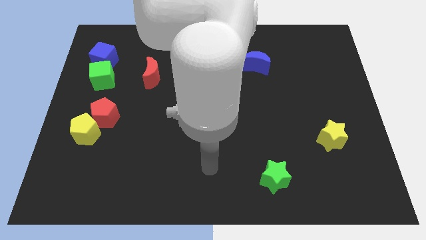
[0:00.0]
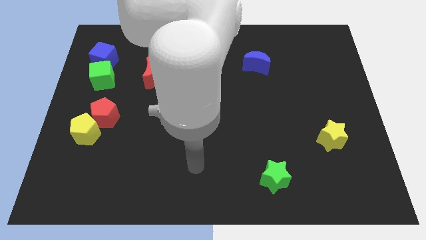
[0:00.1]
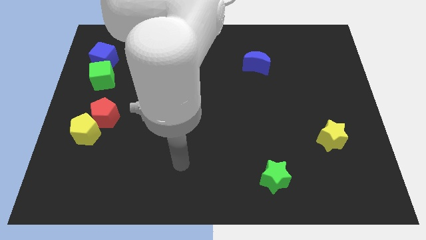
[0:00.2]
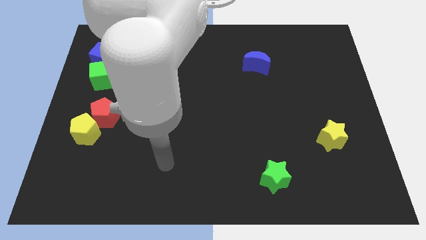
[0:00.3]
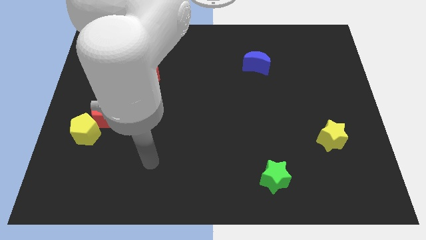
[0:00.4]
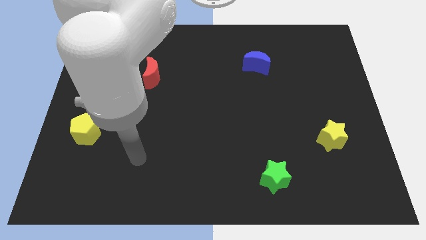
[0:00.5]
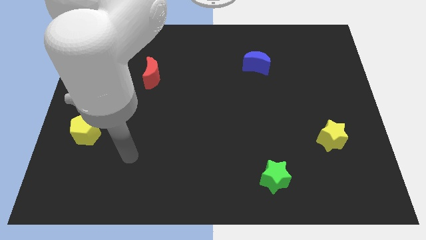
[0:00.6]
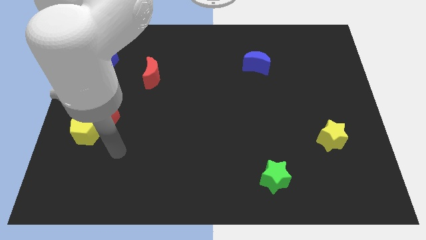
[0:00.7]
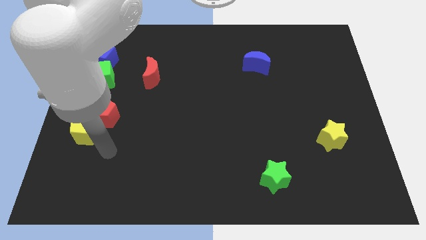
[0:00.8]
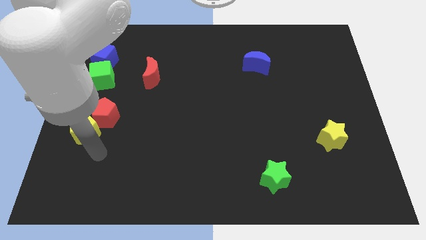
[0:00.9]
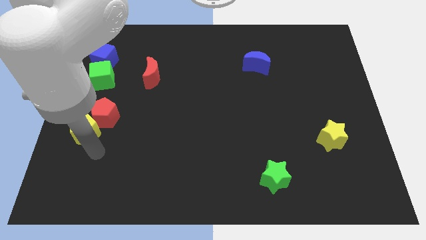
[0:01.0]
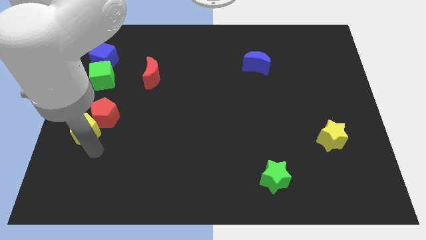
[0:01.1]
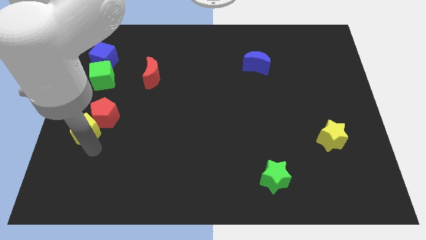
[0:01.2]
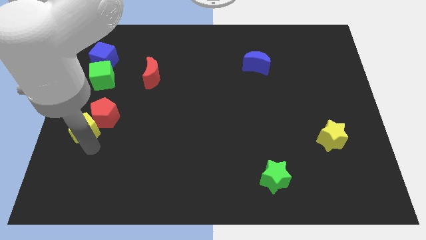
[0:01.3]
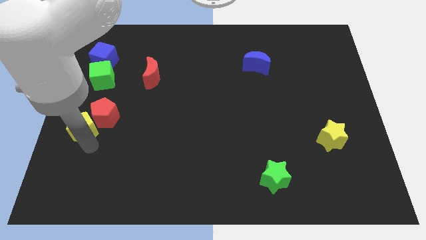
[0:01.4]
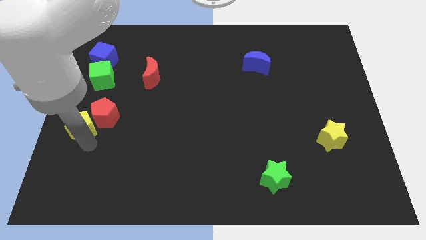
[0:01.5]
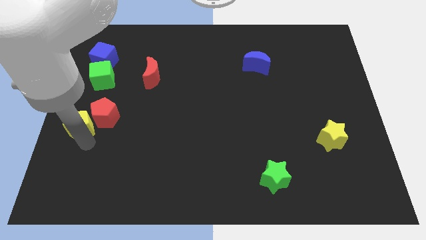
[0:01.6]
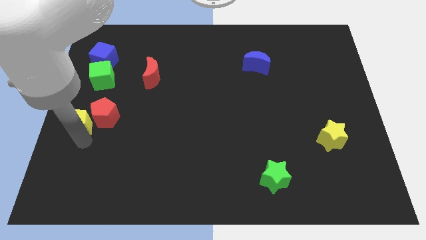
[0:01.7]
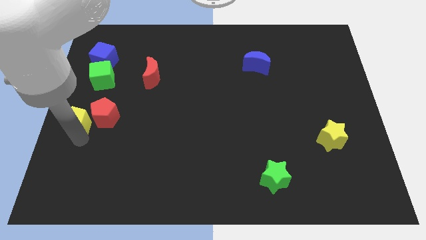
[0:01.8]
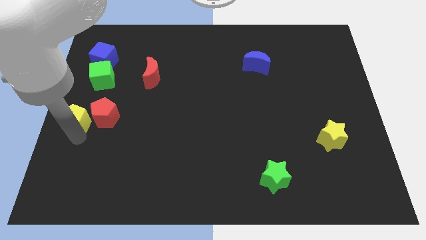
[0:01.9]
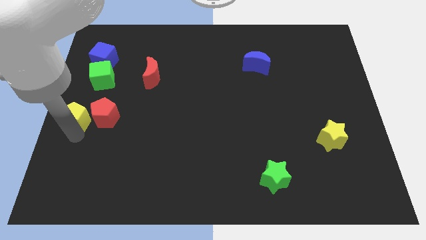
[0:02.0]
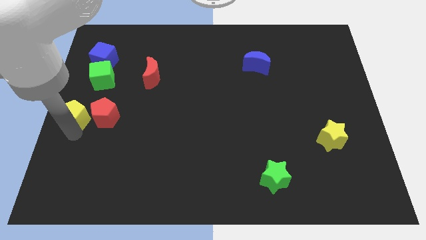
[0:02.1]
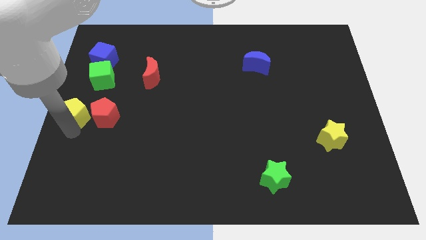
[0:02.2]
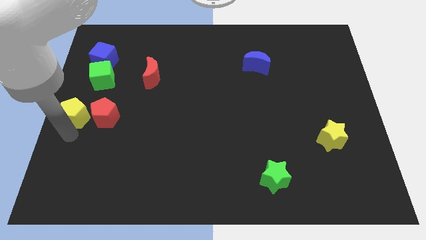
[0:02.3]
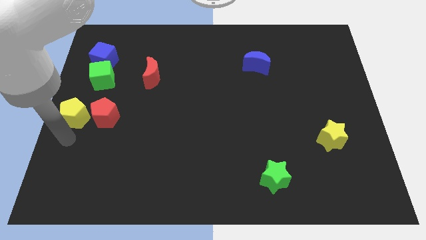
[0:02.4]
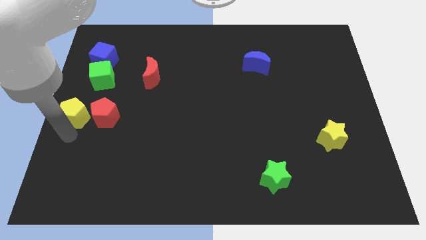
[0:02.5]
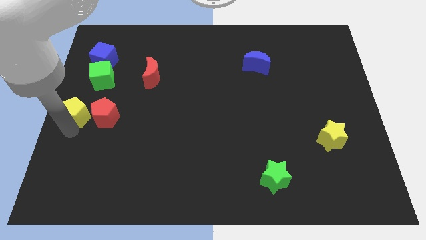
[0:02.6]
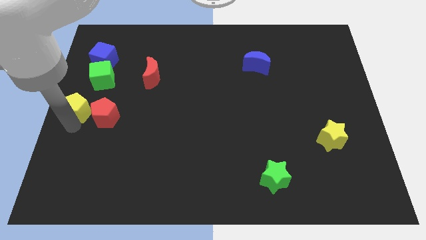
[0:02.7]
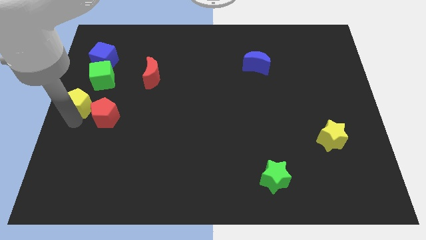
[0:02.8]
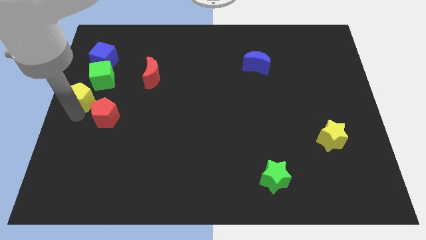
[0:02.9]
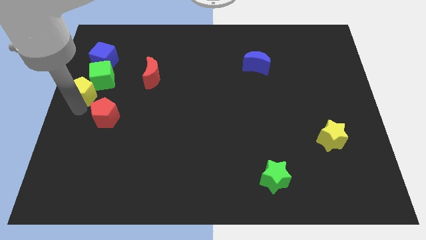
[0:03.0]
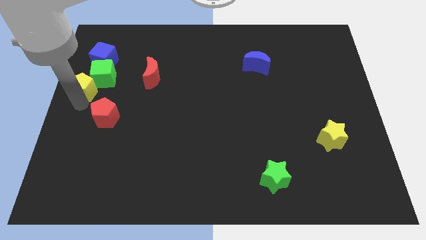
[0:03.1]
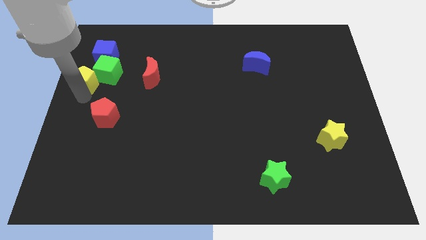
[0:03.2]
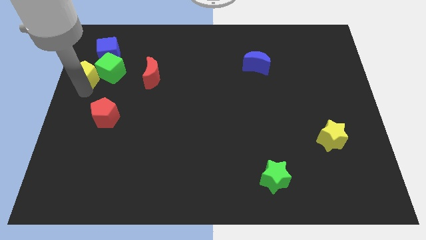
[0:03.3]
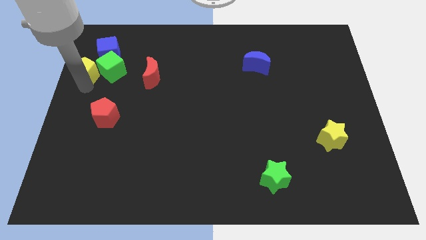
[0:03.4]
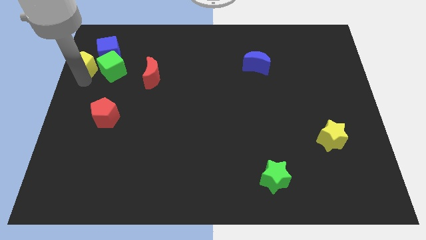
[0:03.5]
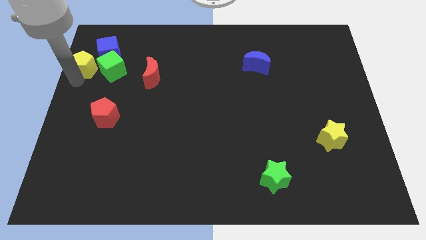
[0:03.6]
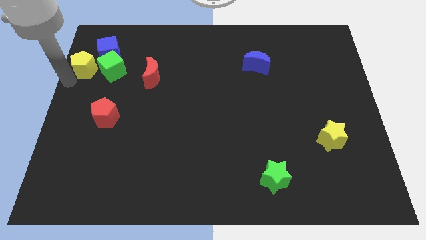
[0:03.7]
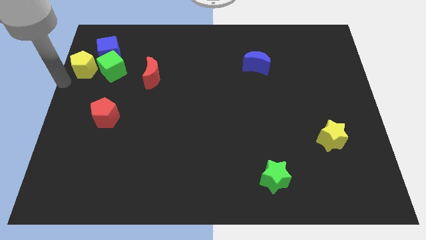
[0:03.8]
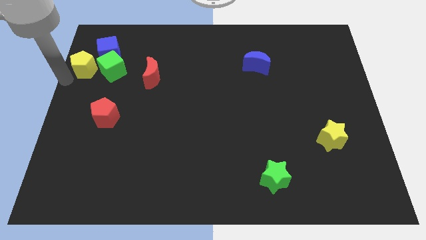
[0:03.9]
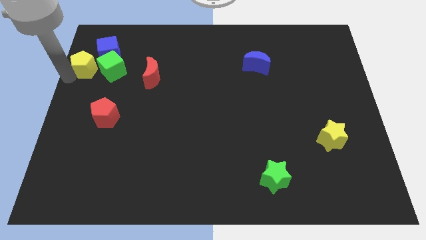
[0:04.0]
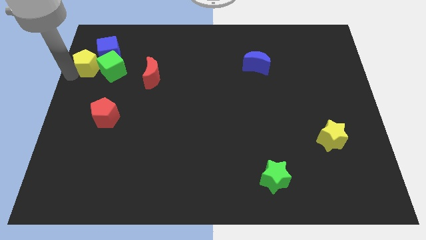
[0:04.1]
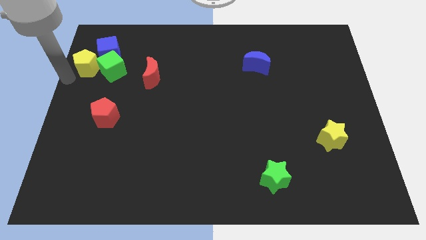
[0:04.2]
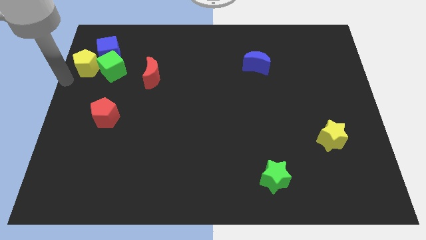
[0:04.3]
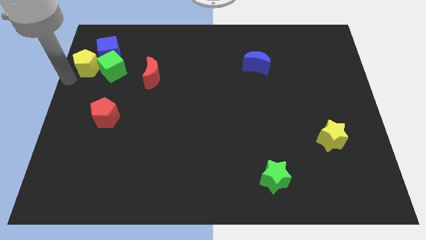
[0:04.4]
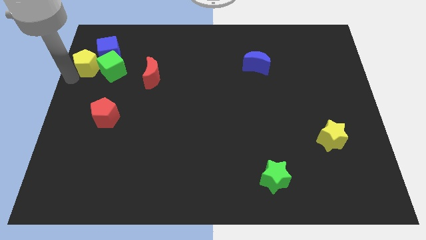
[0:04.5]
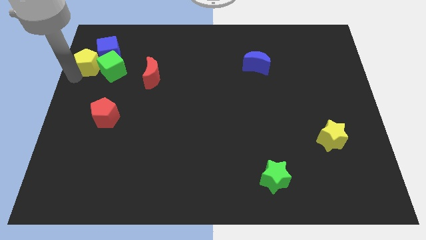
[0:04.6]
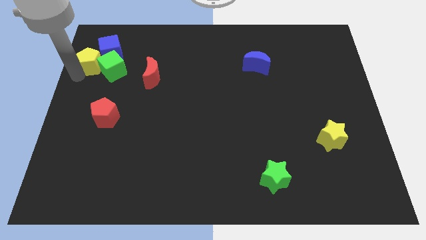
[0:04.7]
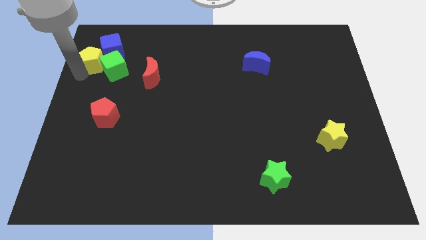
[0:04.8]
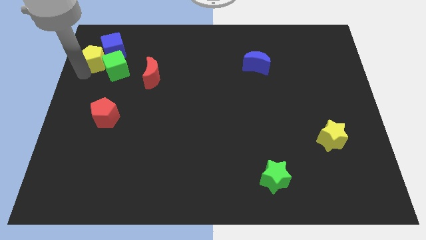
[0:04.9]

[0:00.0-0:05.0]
push the yellow pentagon towards the blue cube

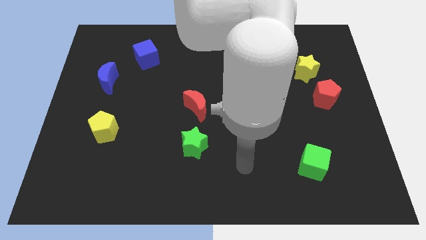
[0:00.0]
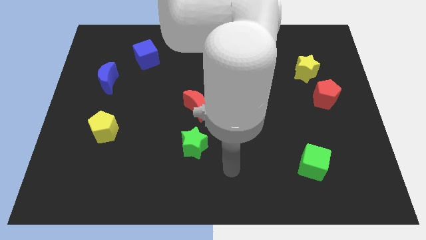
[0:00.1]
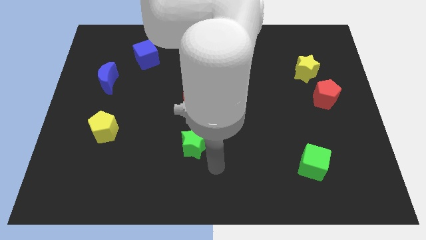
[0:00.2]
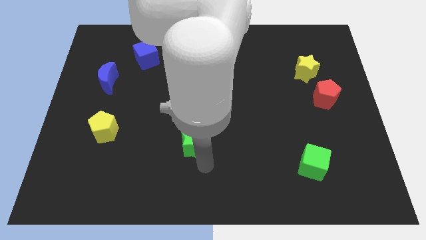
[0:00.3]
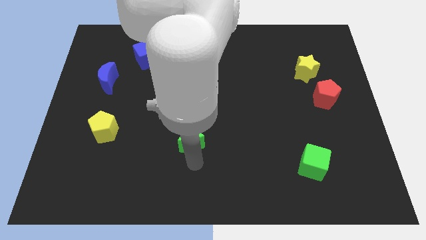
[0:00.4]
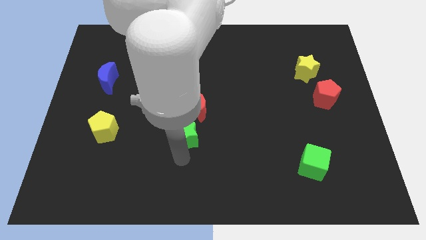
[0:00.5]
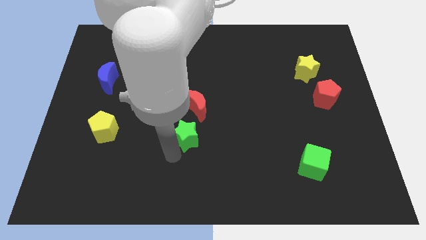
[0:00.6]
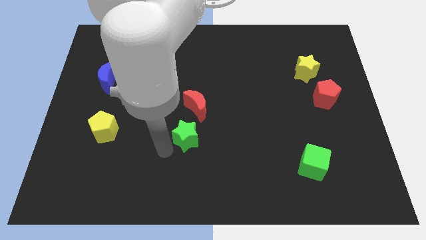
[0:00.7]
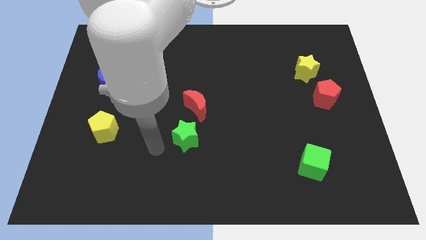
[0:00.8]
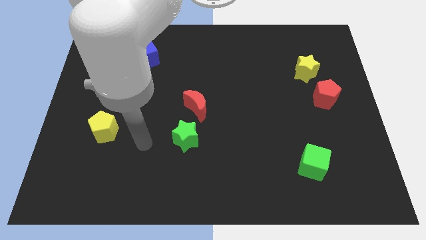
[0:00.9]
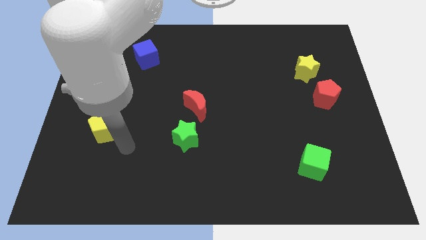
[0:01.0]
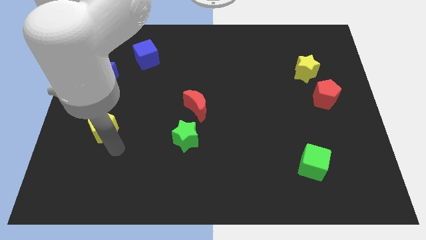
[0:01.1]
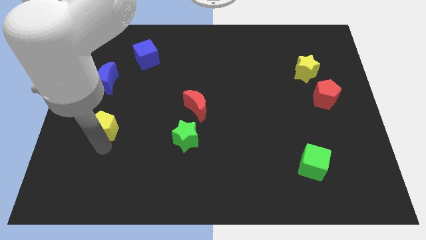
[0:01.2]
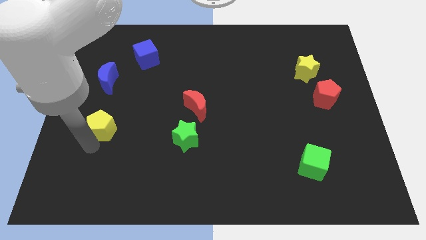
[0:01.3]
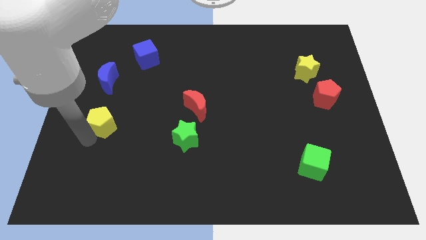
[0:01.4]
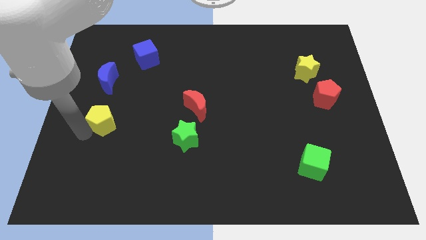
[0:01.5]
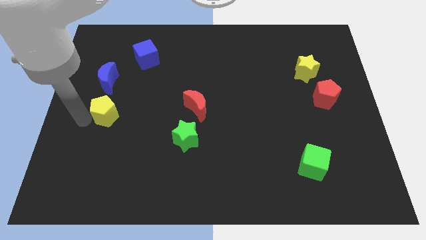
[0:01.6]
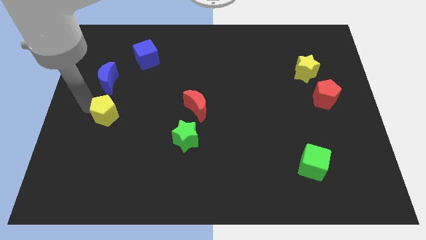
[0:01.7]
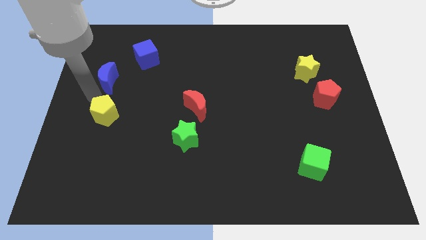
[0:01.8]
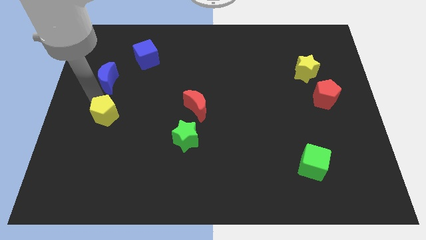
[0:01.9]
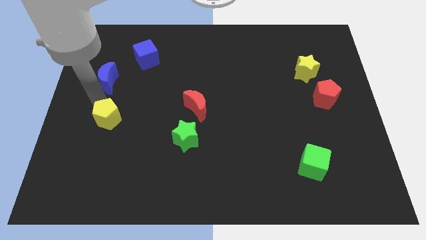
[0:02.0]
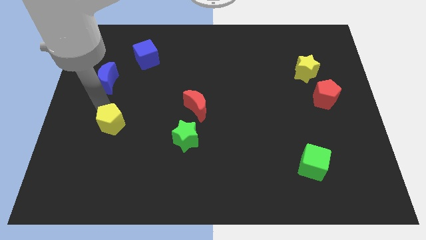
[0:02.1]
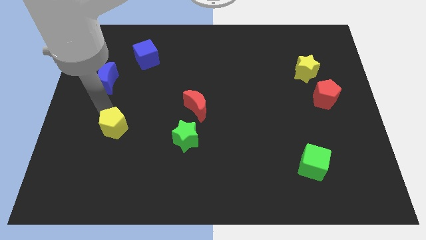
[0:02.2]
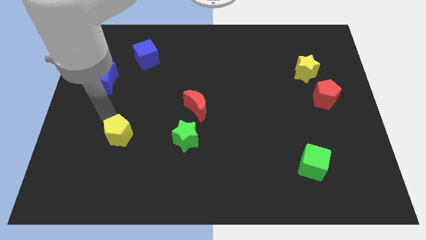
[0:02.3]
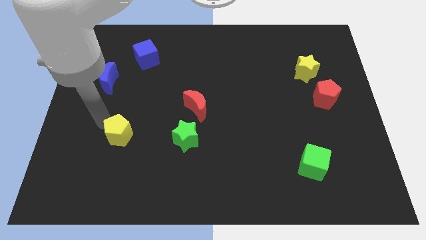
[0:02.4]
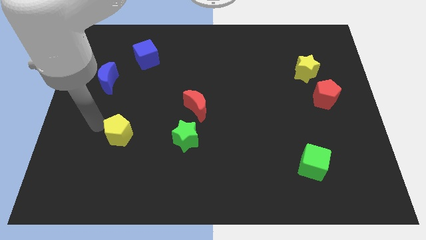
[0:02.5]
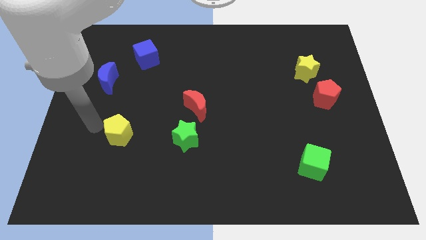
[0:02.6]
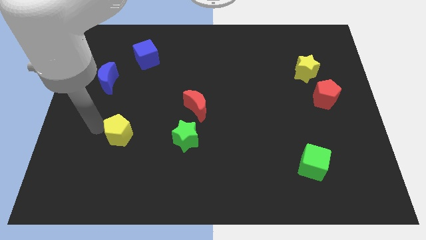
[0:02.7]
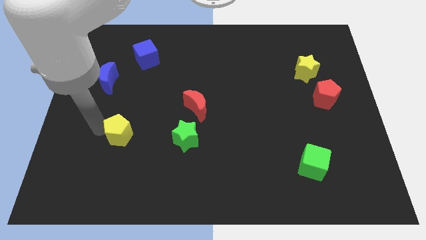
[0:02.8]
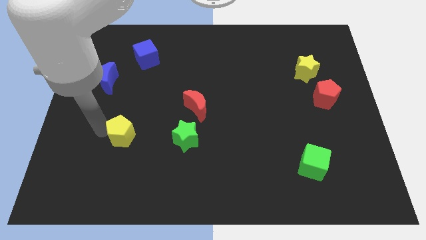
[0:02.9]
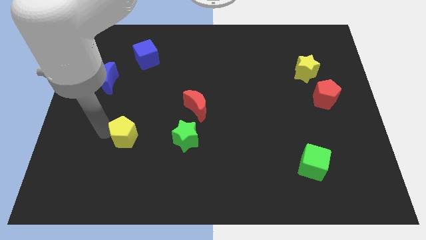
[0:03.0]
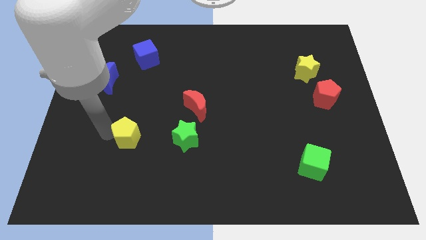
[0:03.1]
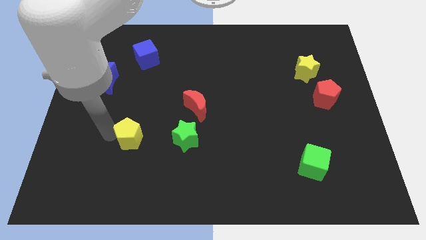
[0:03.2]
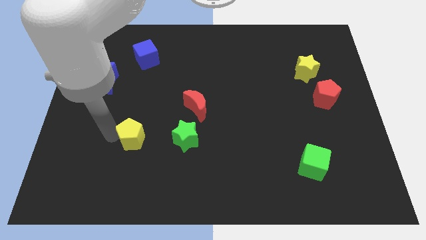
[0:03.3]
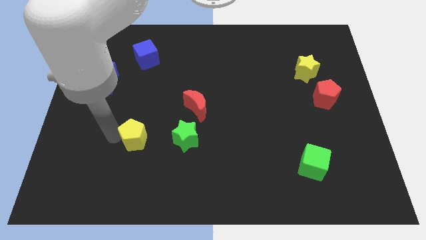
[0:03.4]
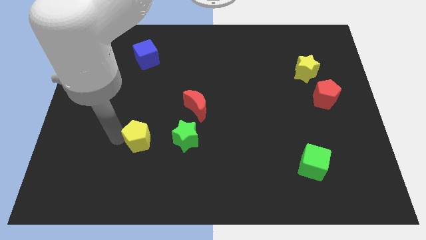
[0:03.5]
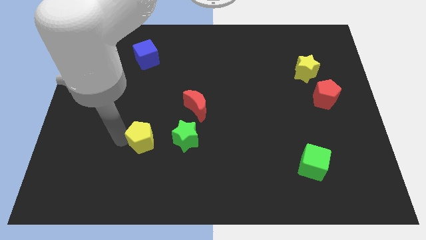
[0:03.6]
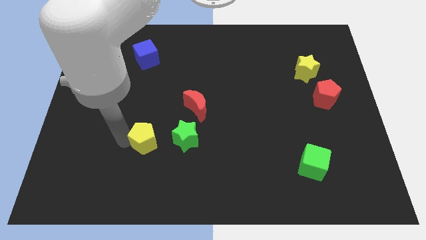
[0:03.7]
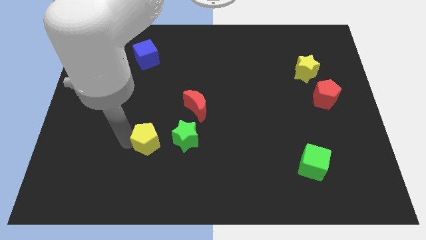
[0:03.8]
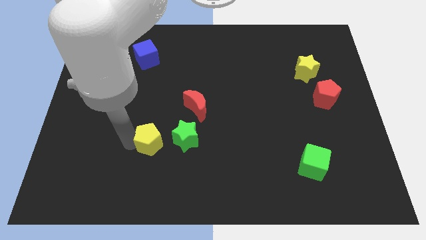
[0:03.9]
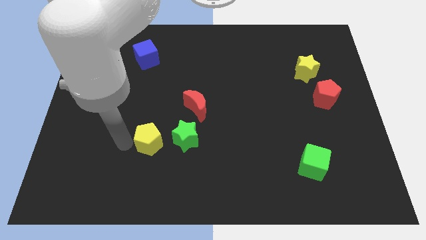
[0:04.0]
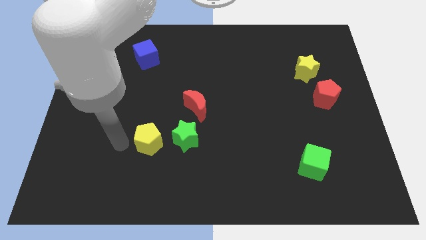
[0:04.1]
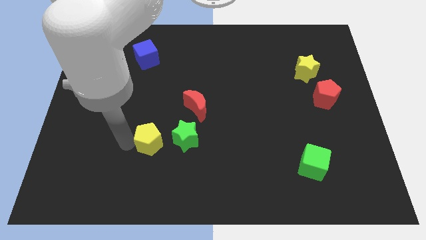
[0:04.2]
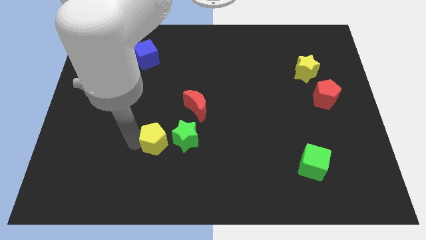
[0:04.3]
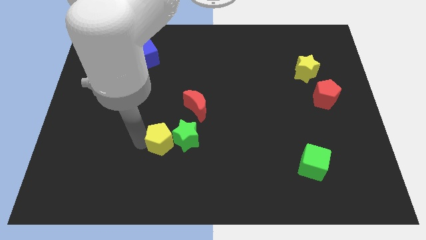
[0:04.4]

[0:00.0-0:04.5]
push the yellow pentagon to the green star
